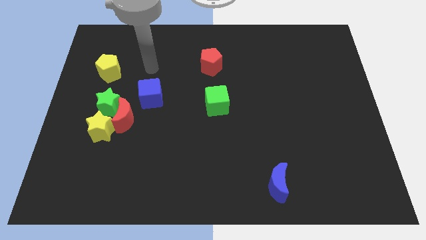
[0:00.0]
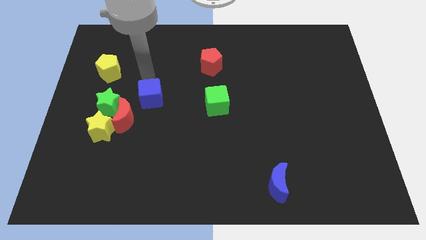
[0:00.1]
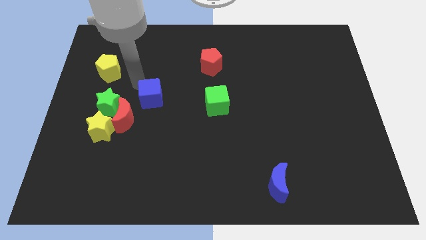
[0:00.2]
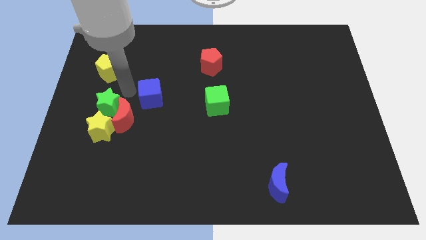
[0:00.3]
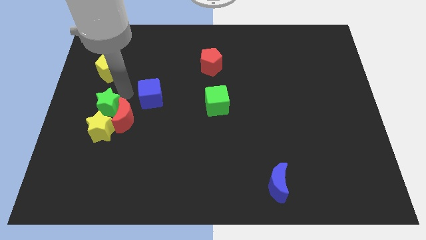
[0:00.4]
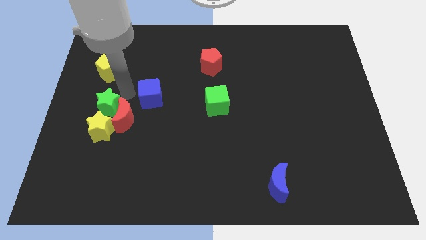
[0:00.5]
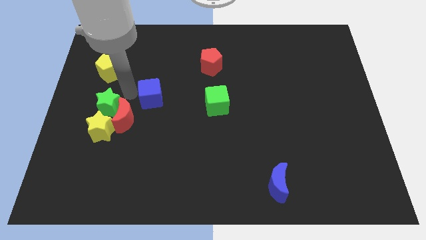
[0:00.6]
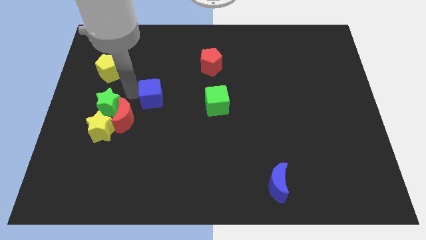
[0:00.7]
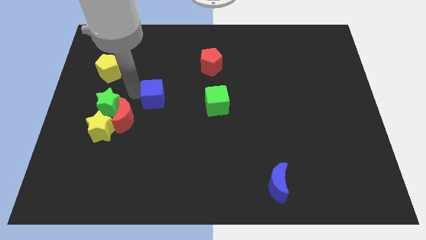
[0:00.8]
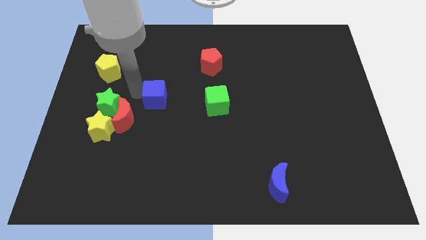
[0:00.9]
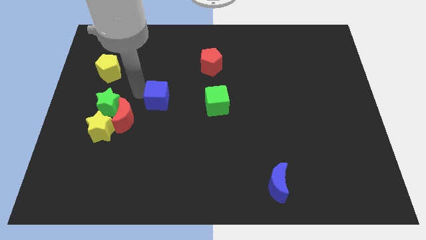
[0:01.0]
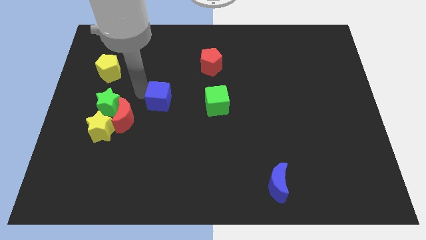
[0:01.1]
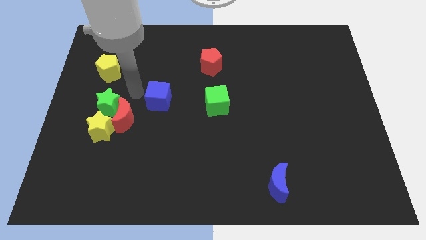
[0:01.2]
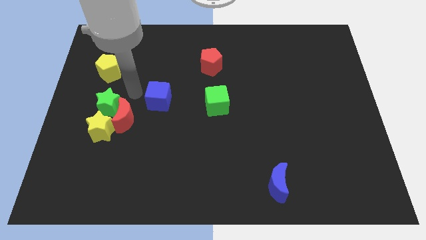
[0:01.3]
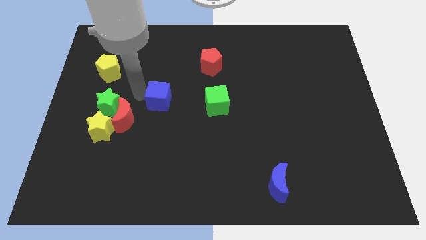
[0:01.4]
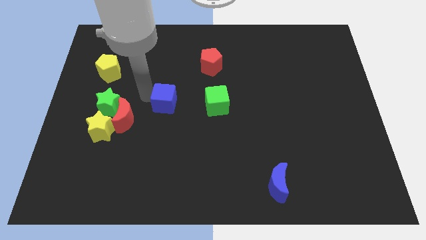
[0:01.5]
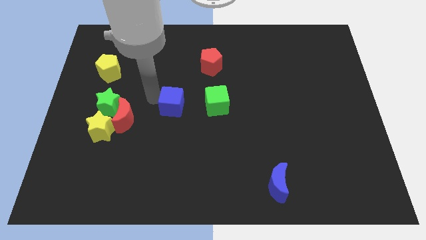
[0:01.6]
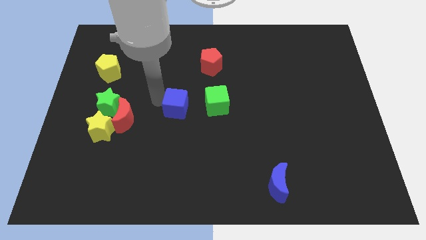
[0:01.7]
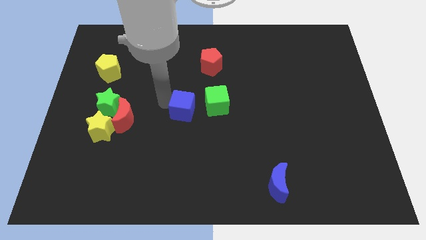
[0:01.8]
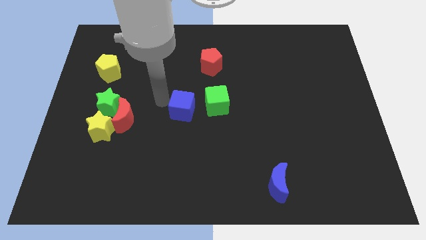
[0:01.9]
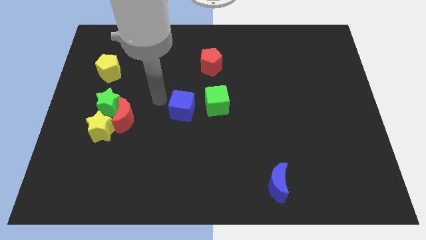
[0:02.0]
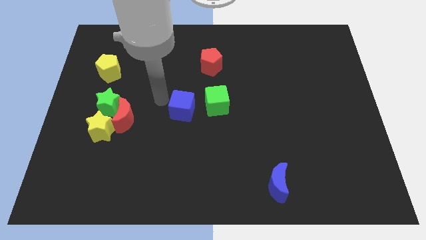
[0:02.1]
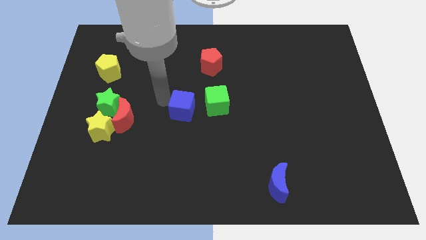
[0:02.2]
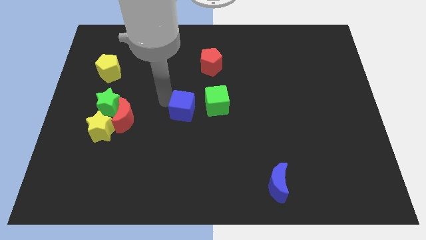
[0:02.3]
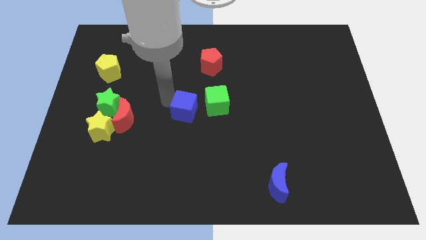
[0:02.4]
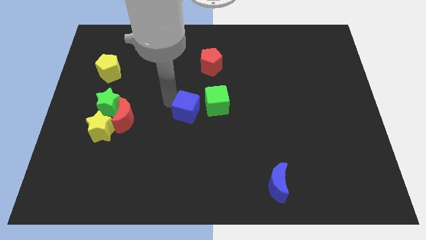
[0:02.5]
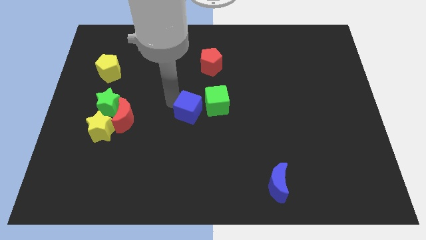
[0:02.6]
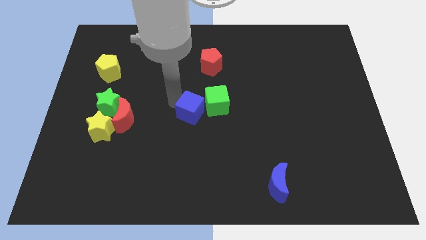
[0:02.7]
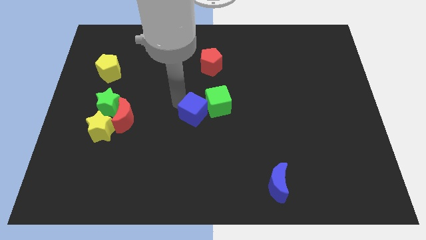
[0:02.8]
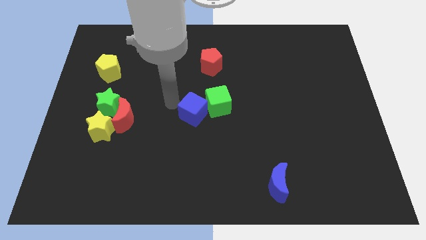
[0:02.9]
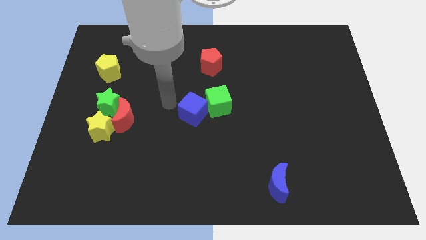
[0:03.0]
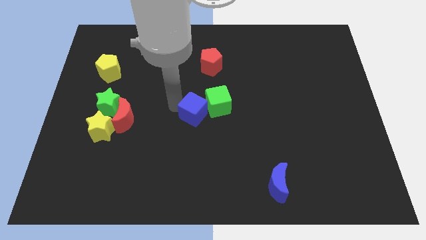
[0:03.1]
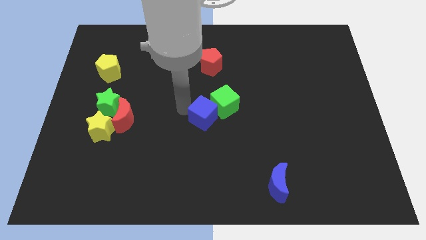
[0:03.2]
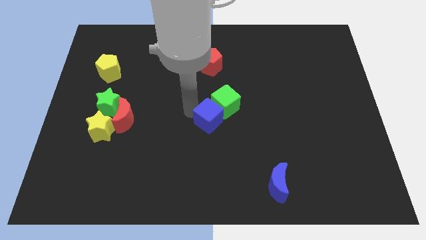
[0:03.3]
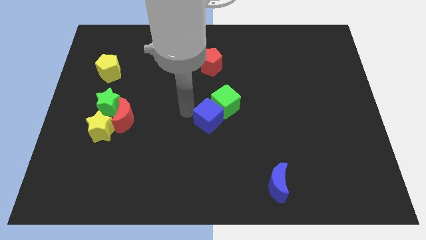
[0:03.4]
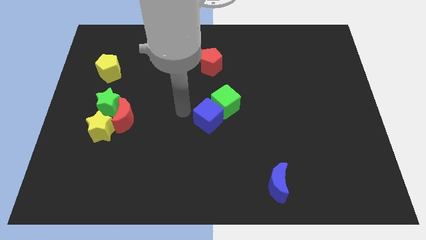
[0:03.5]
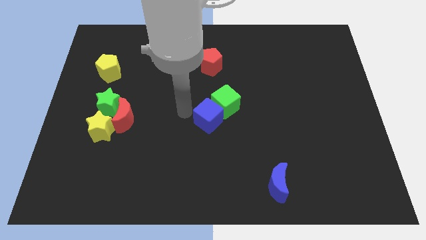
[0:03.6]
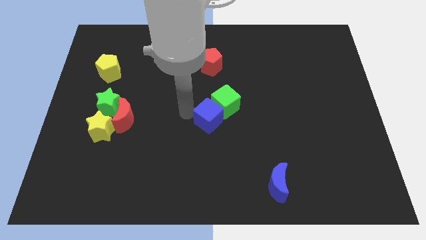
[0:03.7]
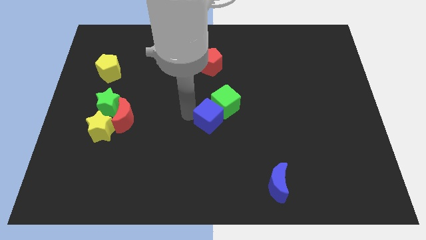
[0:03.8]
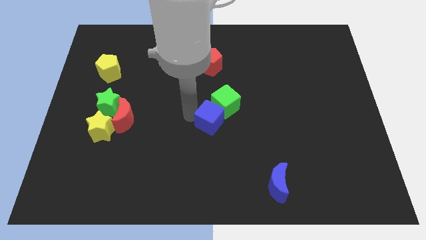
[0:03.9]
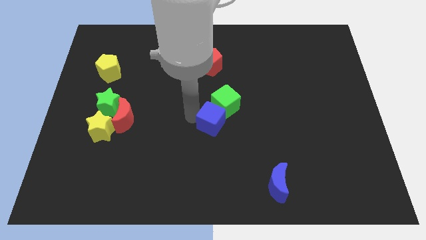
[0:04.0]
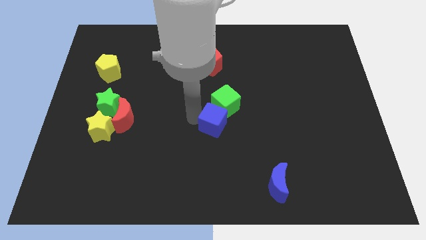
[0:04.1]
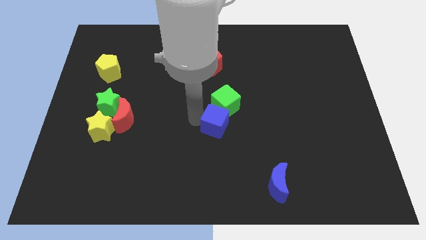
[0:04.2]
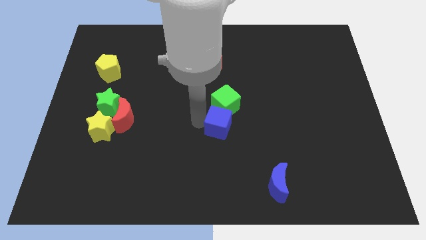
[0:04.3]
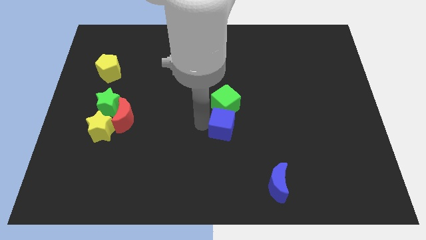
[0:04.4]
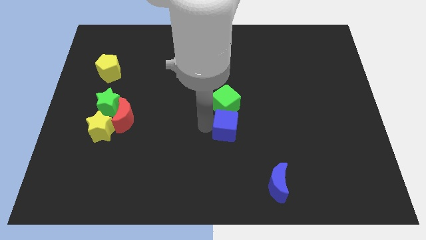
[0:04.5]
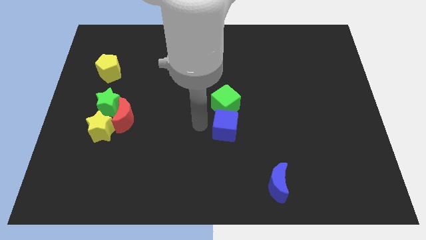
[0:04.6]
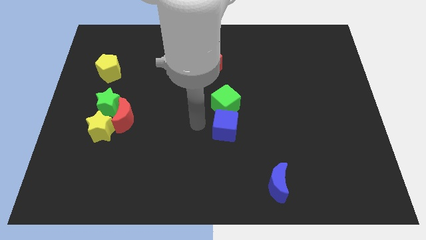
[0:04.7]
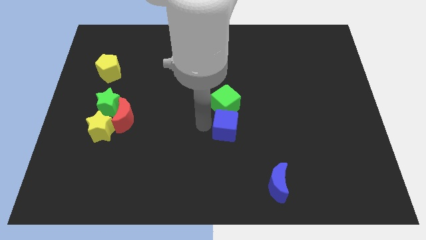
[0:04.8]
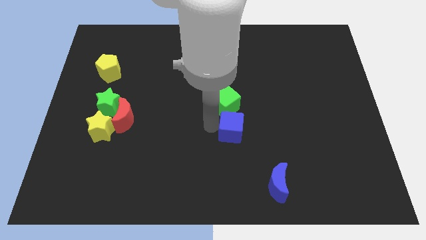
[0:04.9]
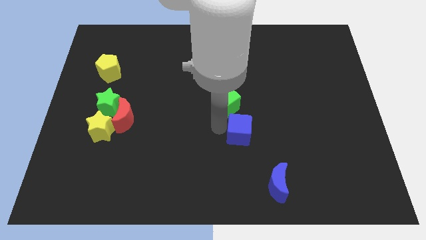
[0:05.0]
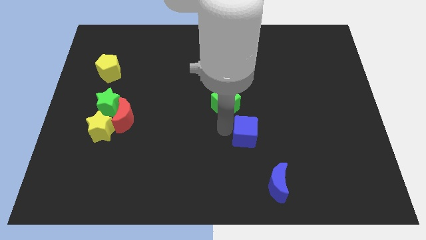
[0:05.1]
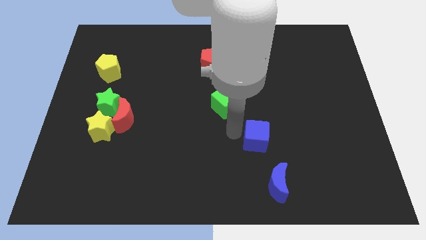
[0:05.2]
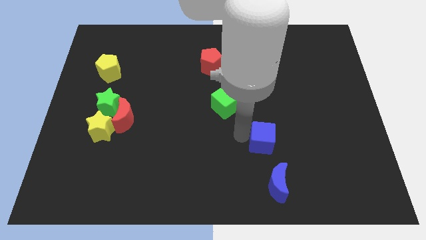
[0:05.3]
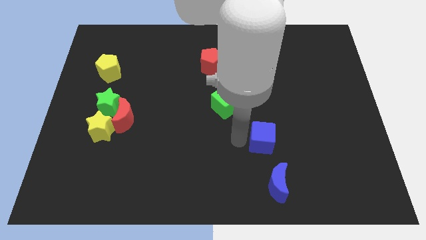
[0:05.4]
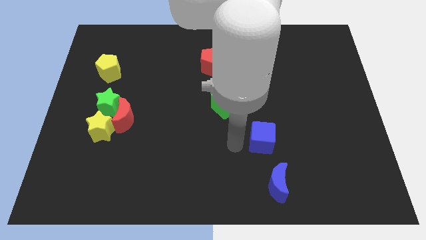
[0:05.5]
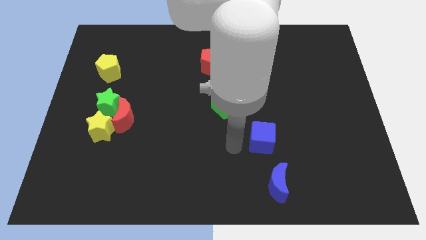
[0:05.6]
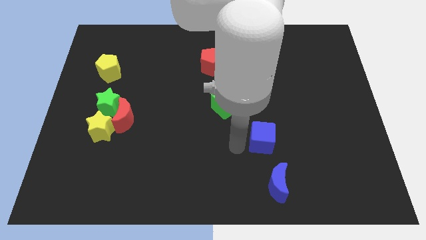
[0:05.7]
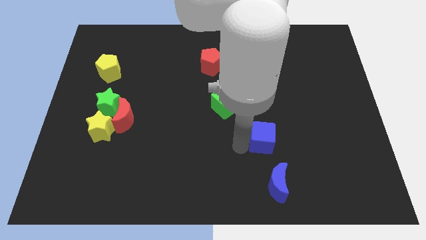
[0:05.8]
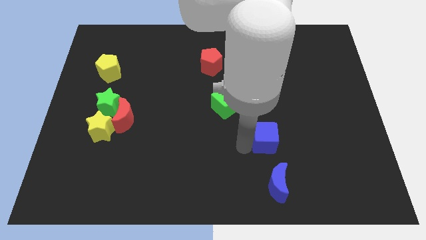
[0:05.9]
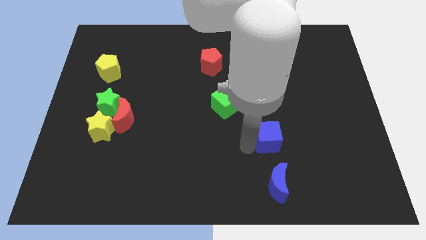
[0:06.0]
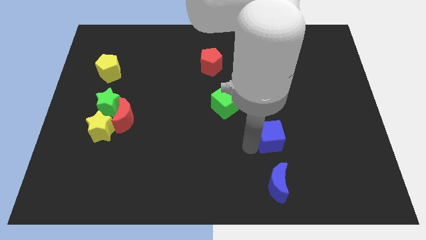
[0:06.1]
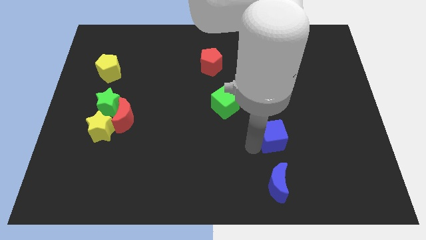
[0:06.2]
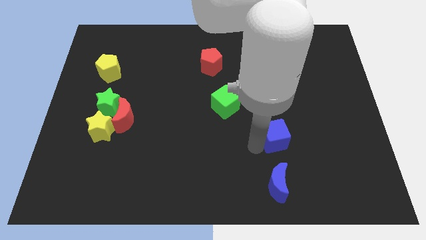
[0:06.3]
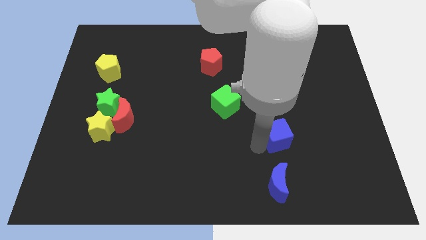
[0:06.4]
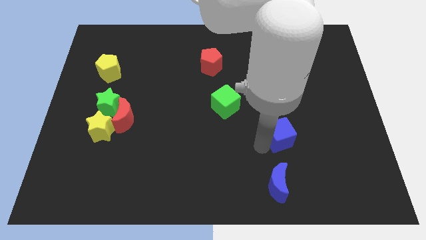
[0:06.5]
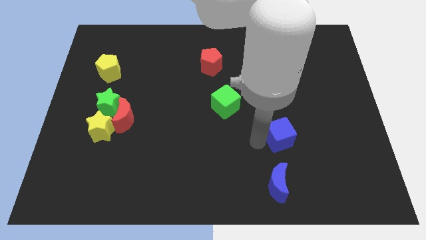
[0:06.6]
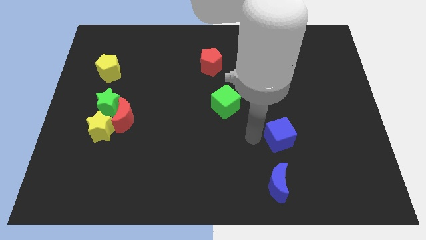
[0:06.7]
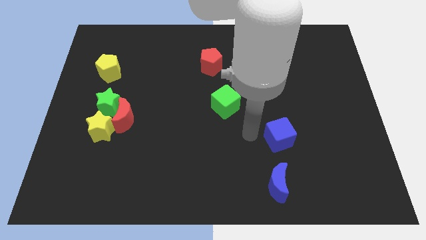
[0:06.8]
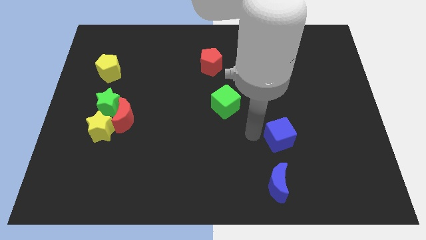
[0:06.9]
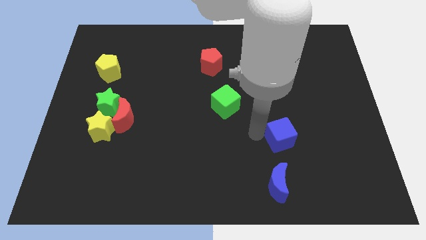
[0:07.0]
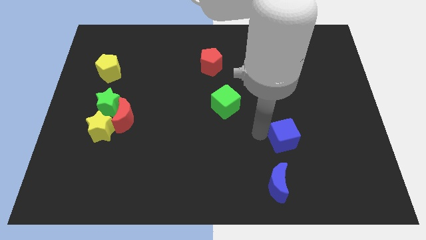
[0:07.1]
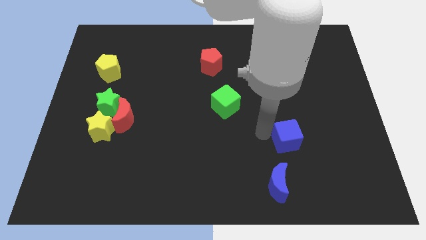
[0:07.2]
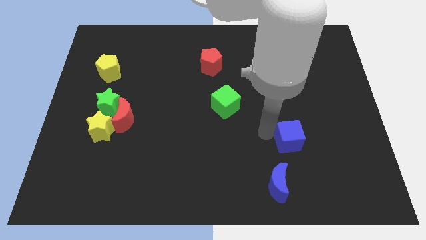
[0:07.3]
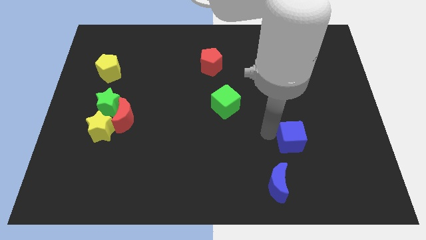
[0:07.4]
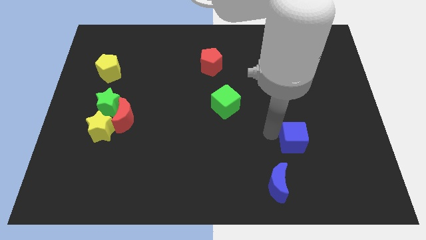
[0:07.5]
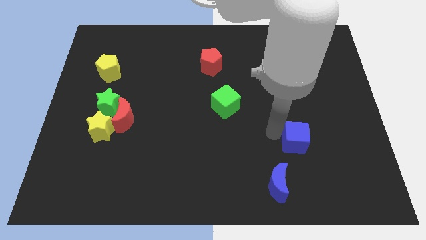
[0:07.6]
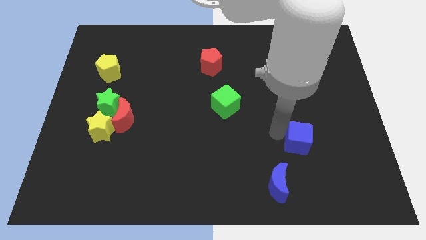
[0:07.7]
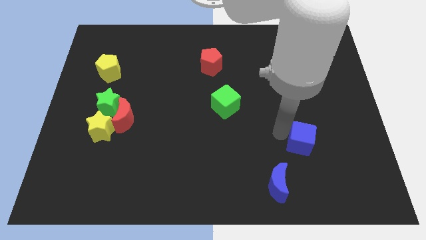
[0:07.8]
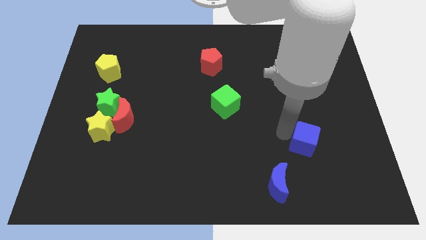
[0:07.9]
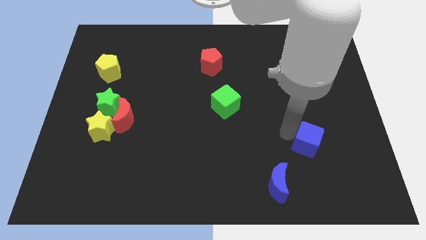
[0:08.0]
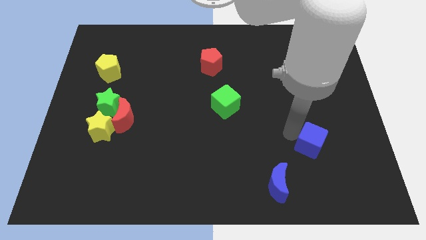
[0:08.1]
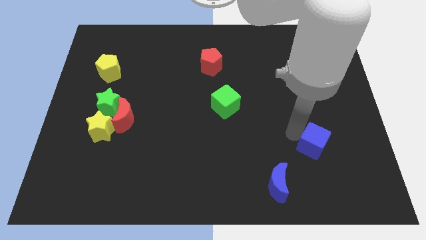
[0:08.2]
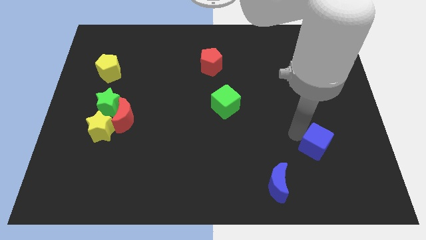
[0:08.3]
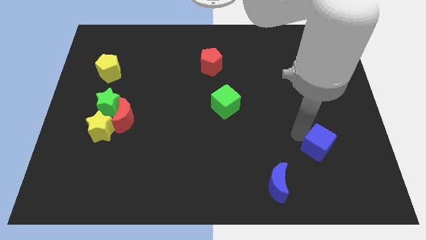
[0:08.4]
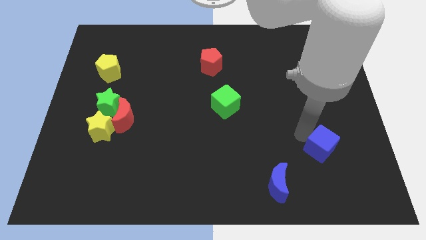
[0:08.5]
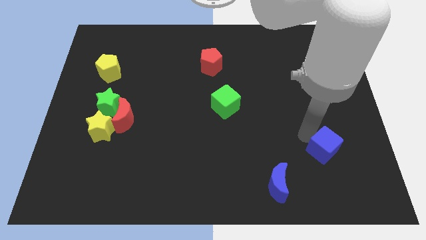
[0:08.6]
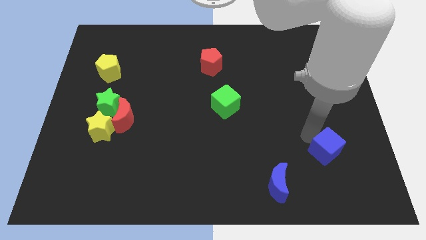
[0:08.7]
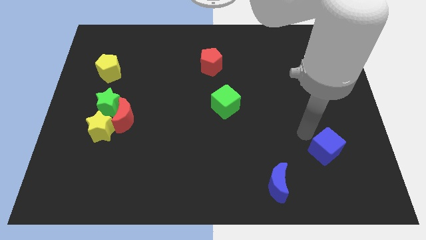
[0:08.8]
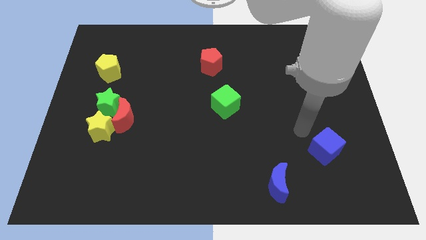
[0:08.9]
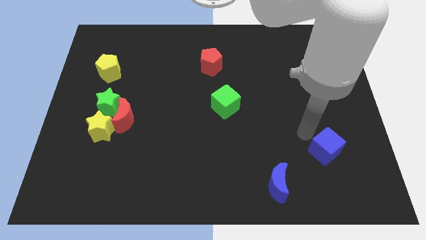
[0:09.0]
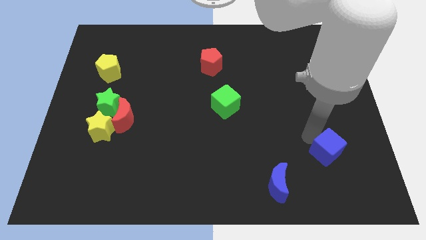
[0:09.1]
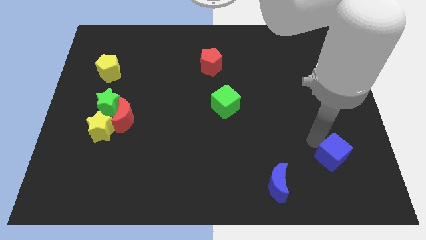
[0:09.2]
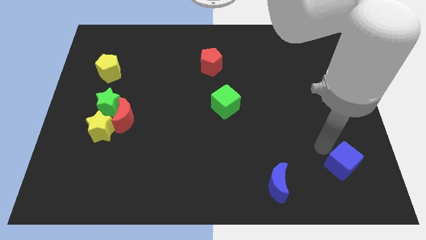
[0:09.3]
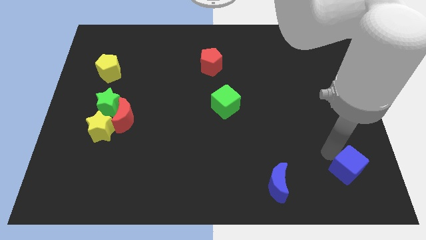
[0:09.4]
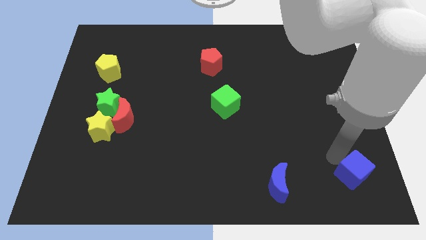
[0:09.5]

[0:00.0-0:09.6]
put the blue cube to the bottom right corner
